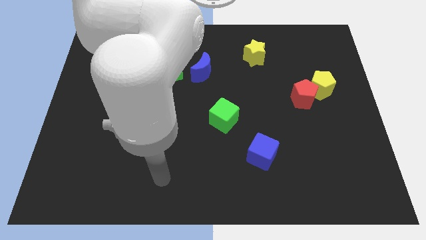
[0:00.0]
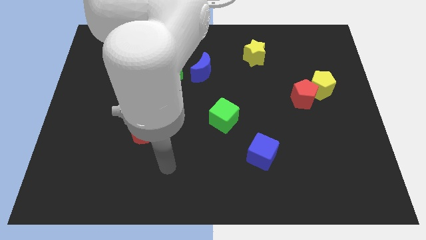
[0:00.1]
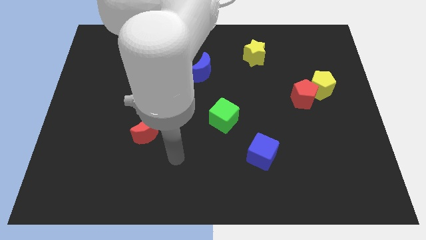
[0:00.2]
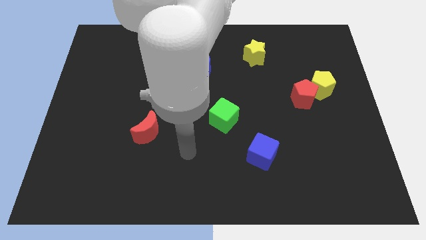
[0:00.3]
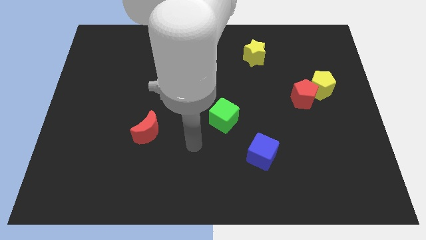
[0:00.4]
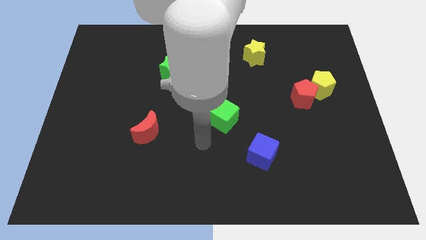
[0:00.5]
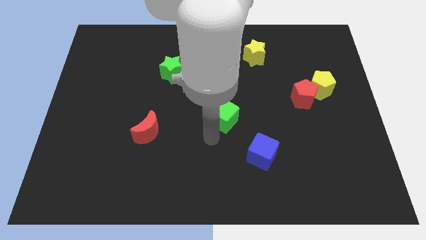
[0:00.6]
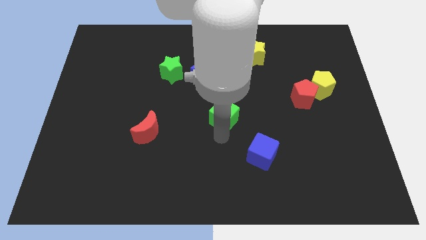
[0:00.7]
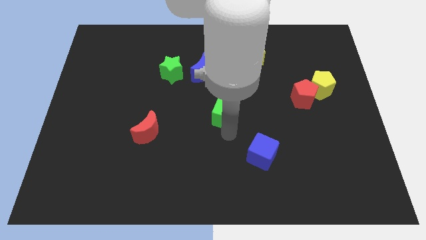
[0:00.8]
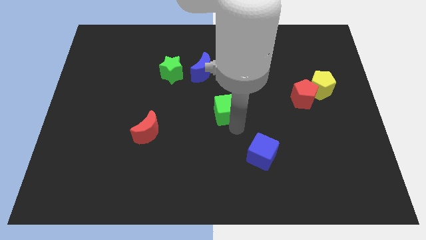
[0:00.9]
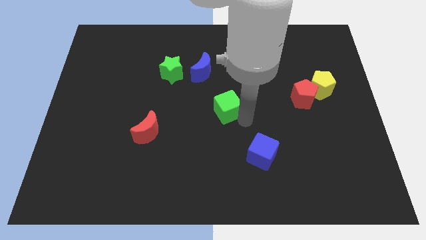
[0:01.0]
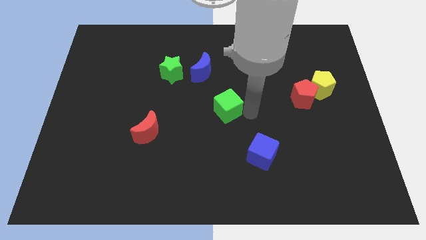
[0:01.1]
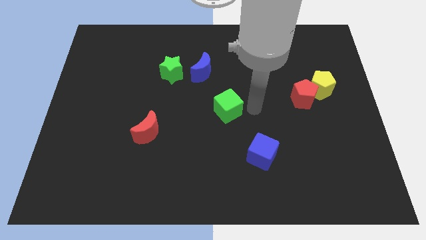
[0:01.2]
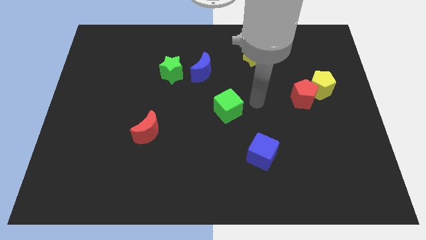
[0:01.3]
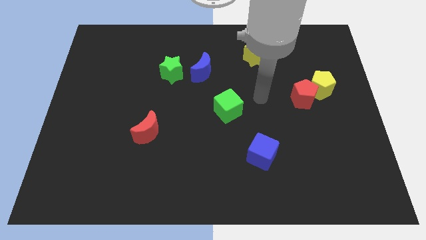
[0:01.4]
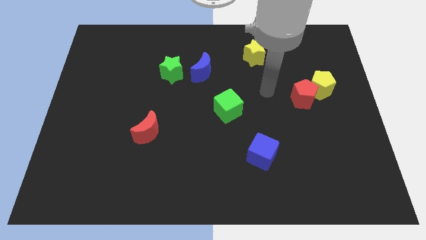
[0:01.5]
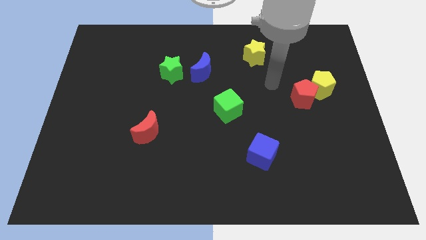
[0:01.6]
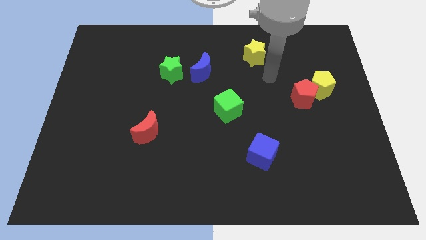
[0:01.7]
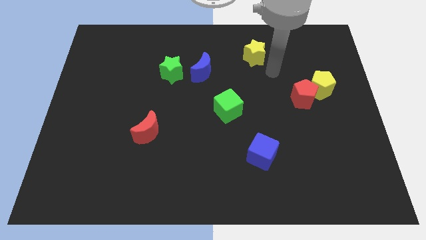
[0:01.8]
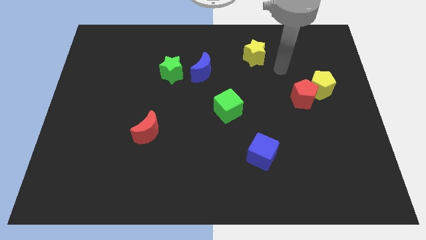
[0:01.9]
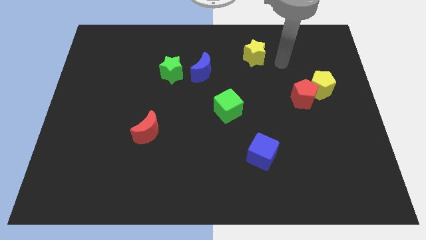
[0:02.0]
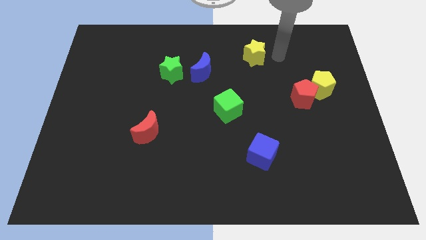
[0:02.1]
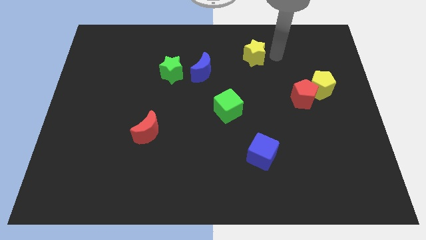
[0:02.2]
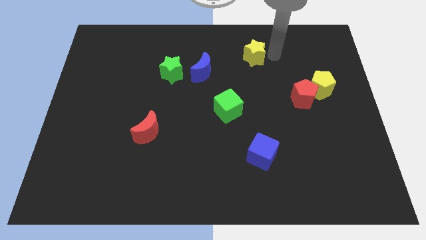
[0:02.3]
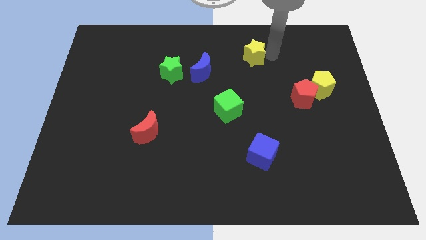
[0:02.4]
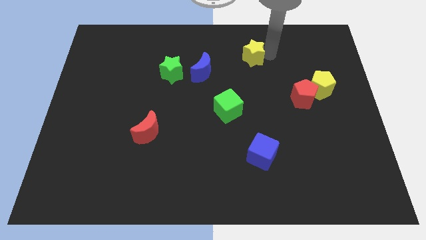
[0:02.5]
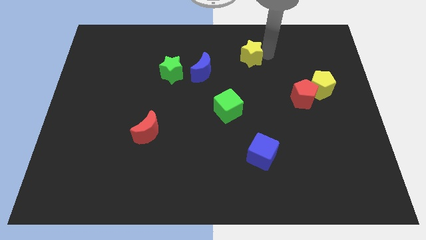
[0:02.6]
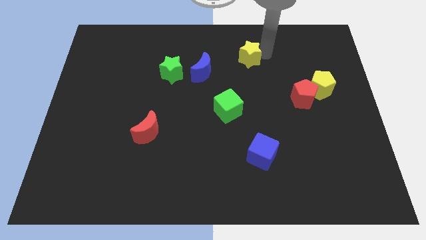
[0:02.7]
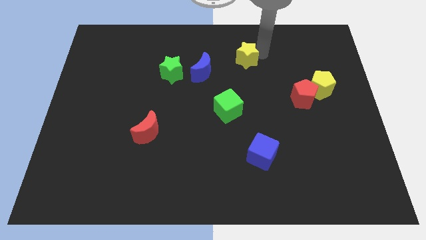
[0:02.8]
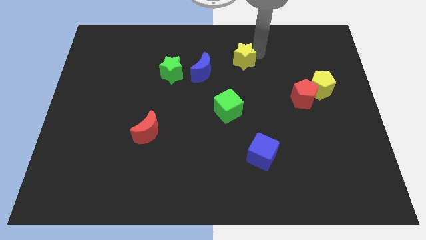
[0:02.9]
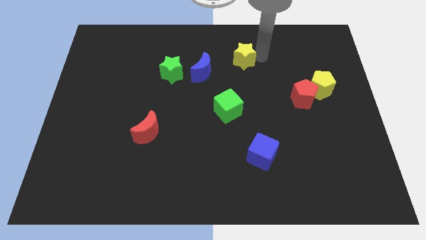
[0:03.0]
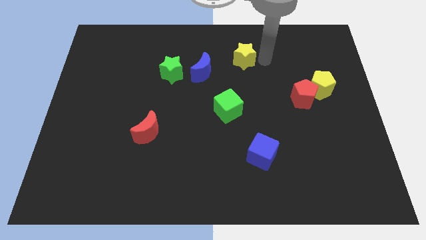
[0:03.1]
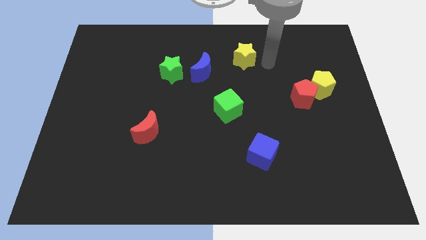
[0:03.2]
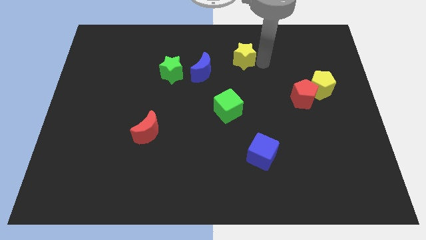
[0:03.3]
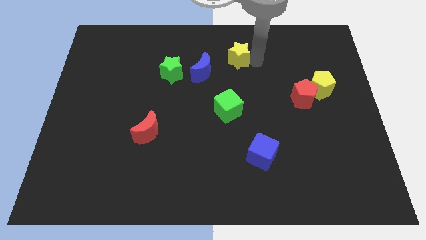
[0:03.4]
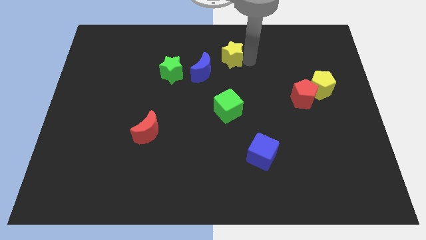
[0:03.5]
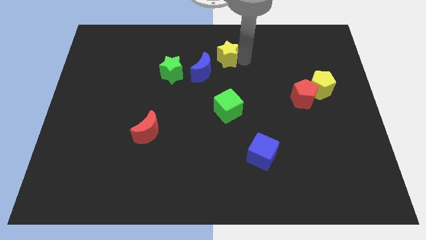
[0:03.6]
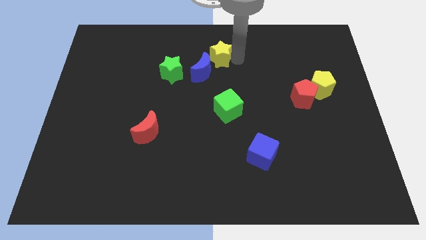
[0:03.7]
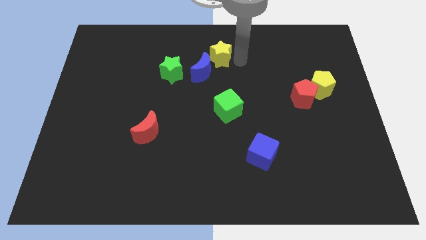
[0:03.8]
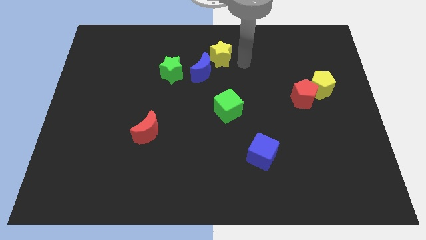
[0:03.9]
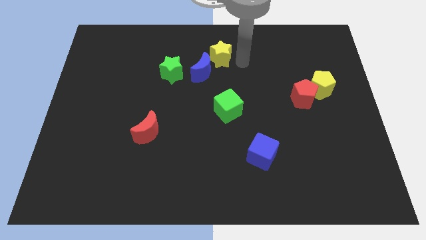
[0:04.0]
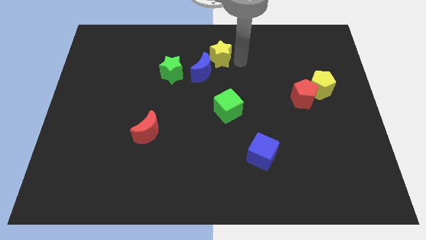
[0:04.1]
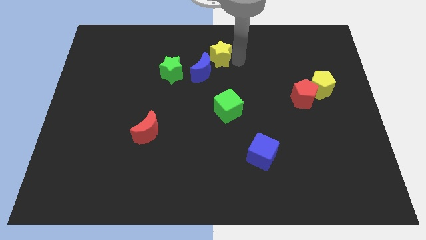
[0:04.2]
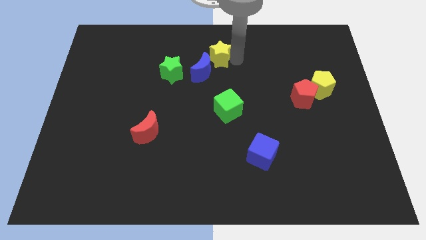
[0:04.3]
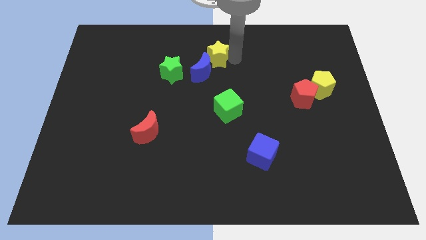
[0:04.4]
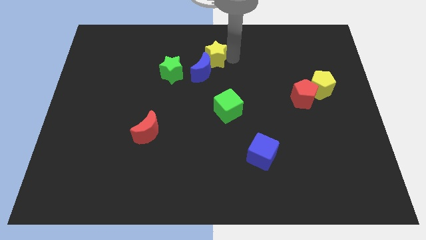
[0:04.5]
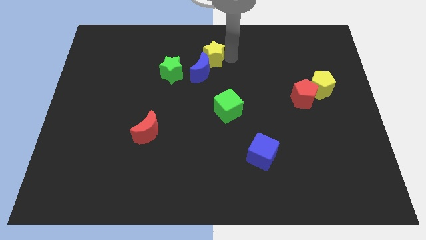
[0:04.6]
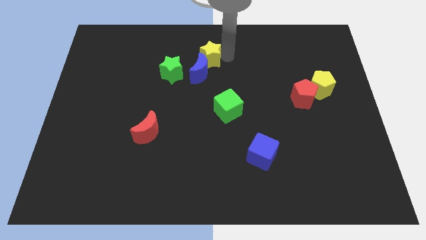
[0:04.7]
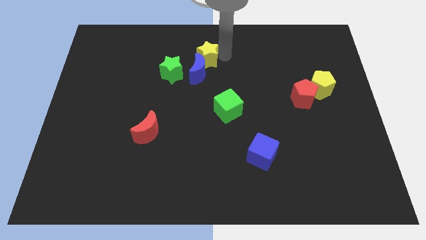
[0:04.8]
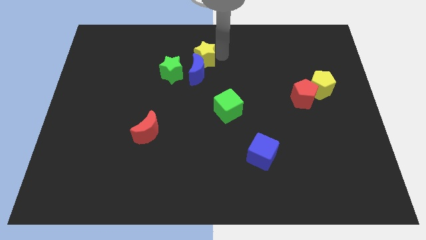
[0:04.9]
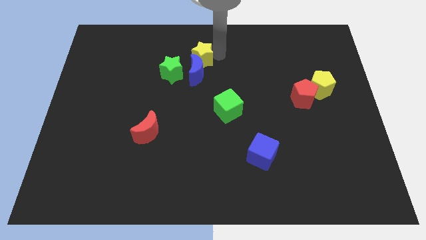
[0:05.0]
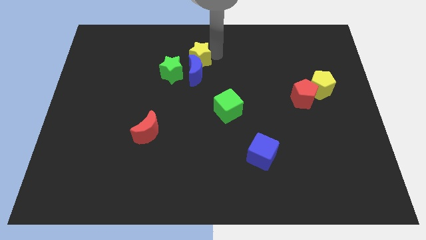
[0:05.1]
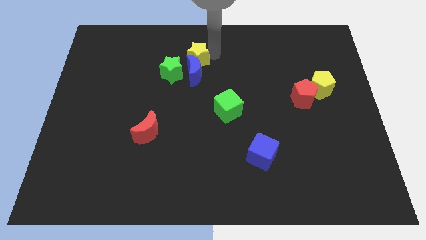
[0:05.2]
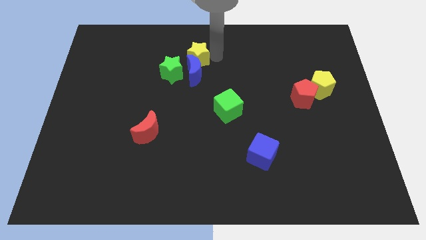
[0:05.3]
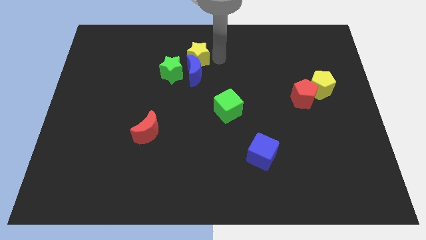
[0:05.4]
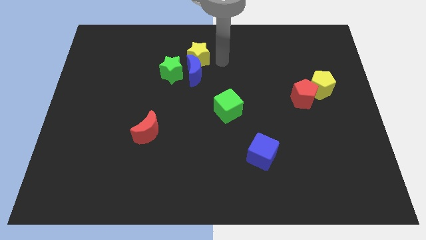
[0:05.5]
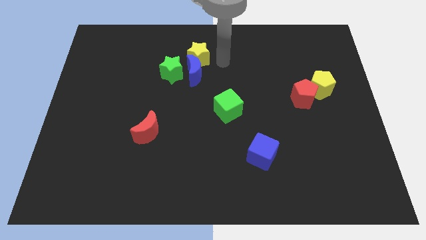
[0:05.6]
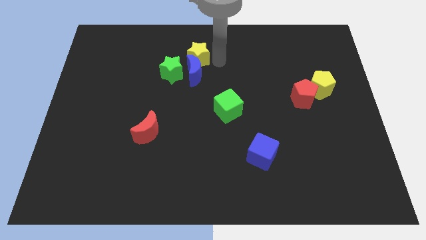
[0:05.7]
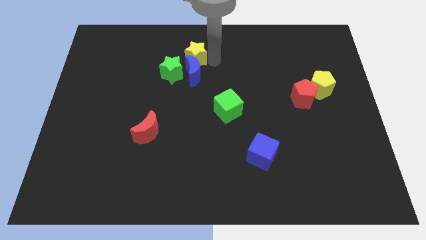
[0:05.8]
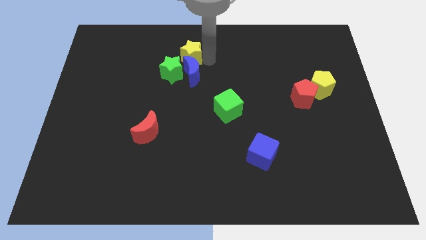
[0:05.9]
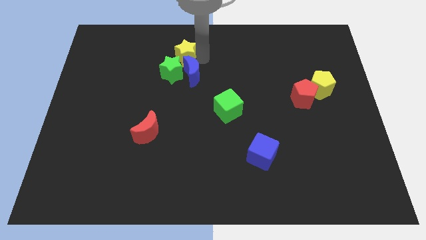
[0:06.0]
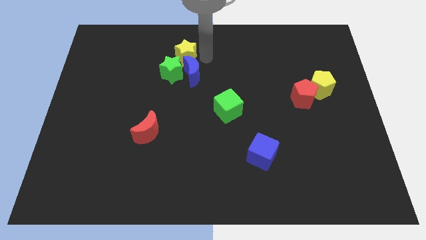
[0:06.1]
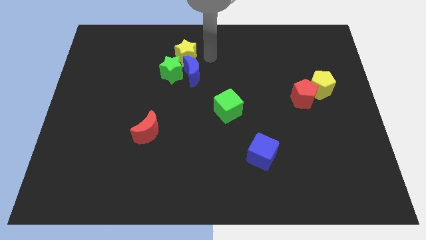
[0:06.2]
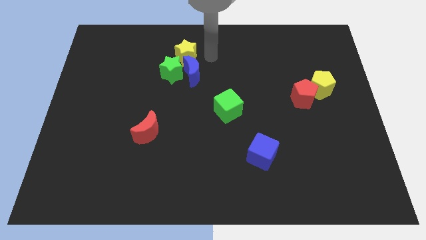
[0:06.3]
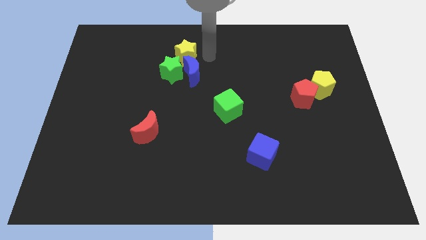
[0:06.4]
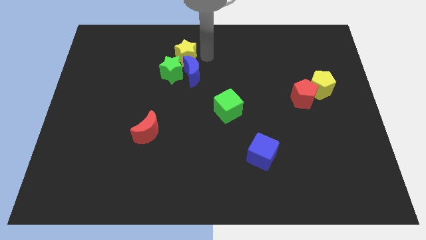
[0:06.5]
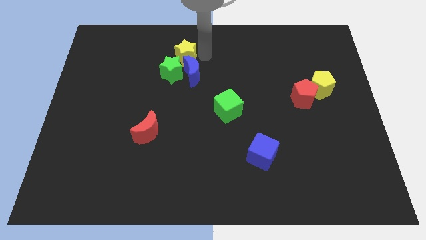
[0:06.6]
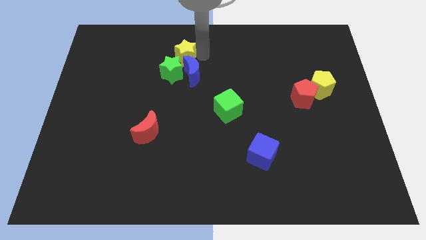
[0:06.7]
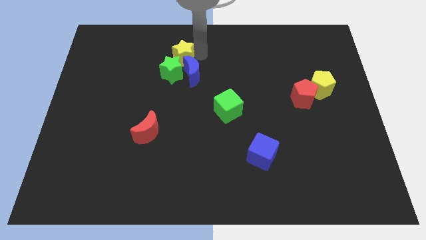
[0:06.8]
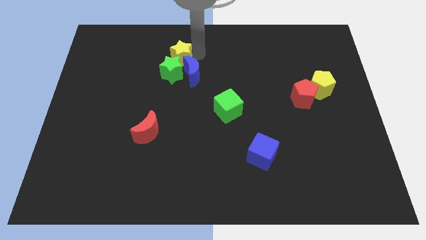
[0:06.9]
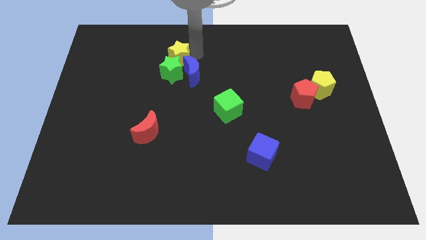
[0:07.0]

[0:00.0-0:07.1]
push the yellow star diagonally up and to the left of the green star
